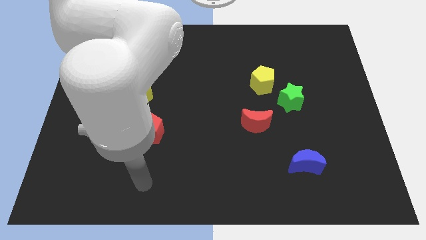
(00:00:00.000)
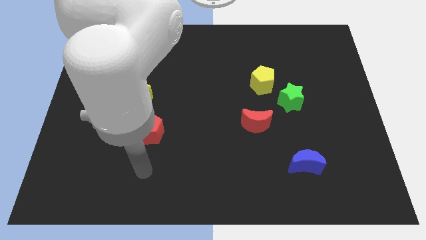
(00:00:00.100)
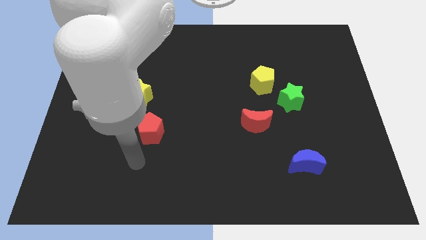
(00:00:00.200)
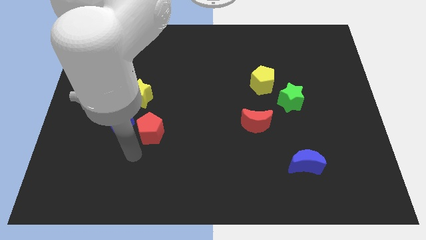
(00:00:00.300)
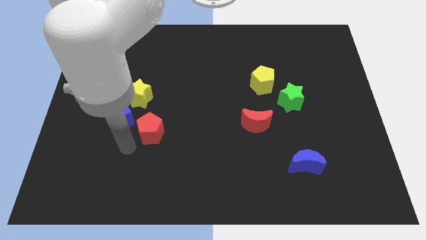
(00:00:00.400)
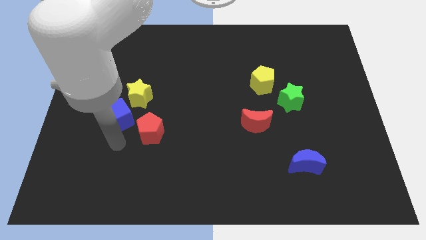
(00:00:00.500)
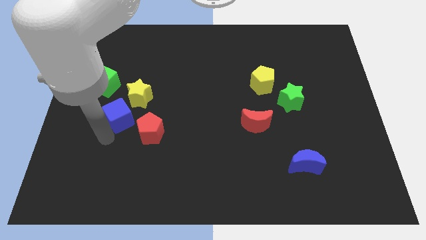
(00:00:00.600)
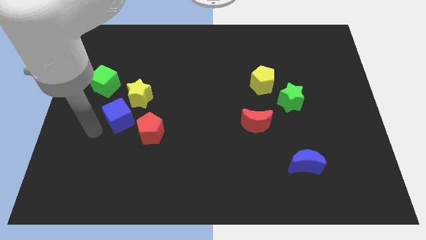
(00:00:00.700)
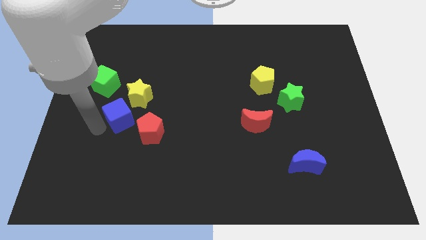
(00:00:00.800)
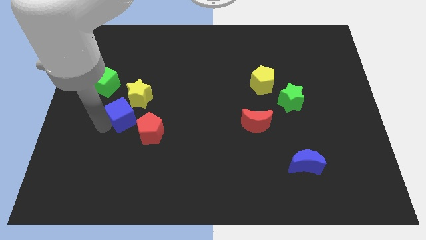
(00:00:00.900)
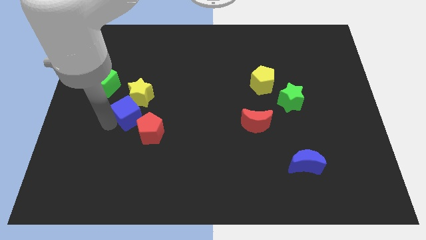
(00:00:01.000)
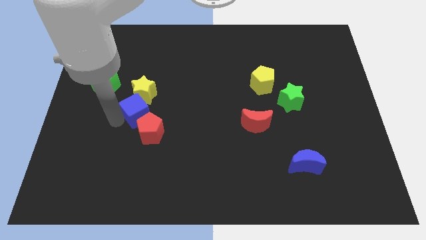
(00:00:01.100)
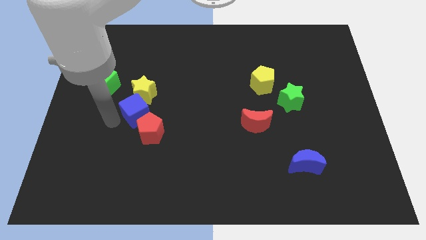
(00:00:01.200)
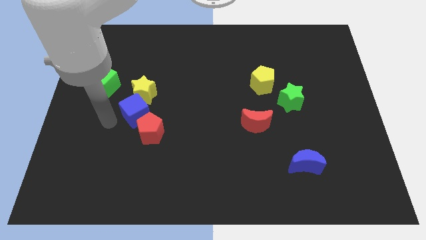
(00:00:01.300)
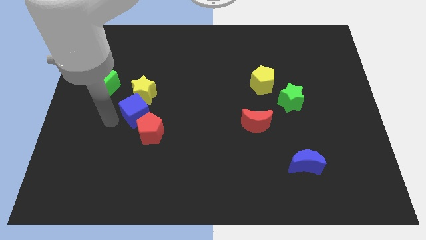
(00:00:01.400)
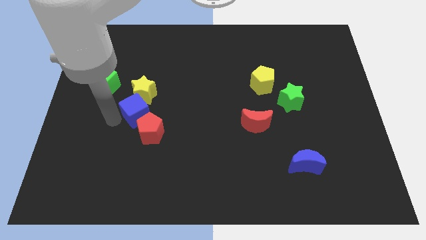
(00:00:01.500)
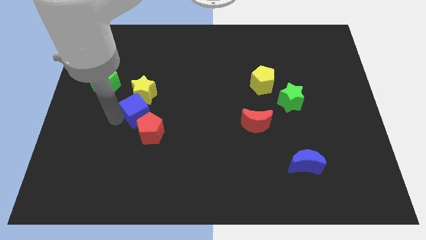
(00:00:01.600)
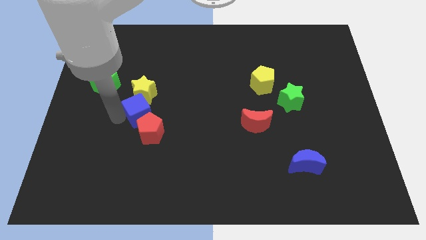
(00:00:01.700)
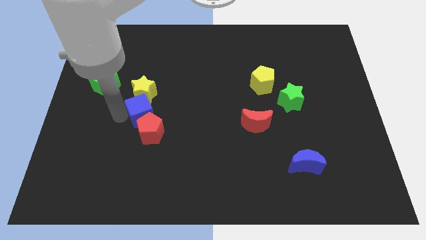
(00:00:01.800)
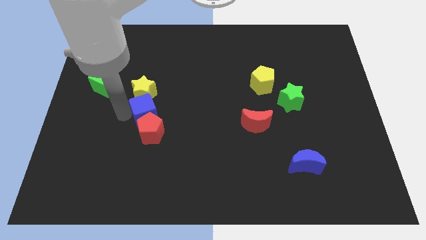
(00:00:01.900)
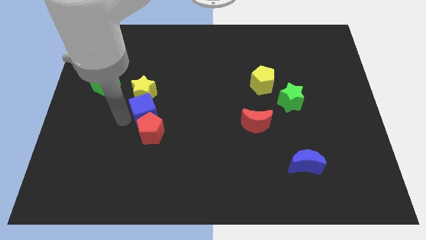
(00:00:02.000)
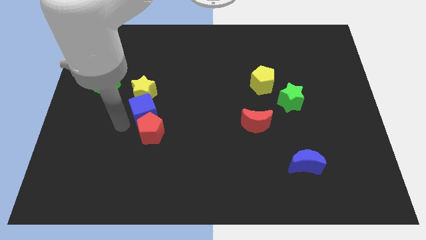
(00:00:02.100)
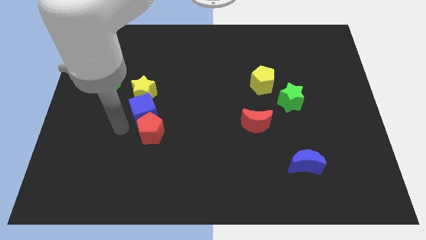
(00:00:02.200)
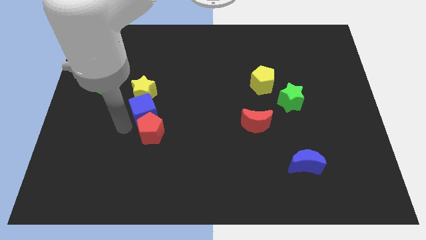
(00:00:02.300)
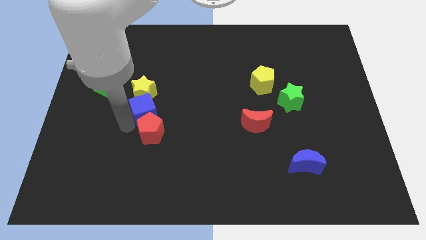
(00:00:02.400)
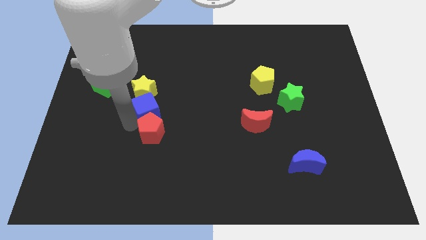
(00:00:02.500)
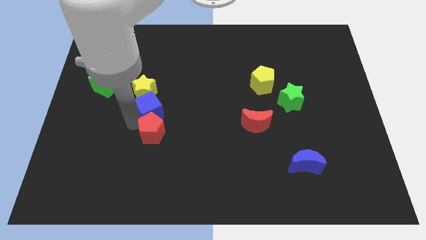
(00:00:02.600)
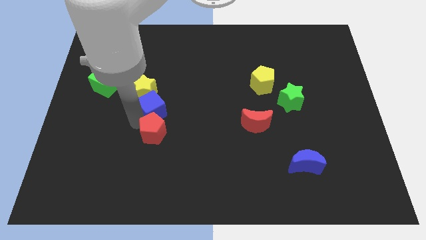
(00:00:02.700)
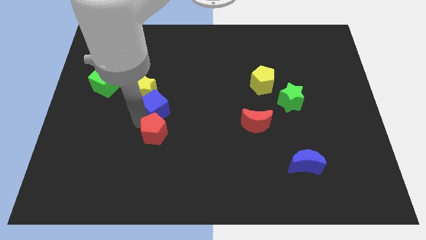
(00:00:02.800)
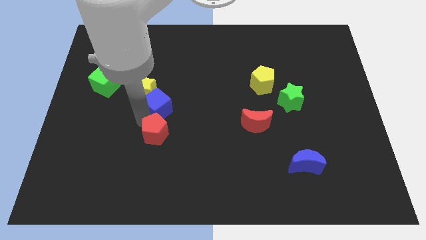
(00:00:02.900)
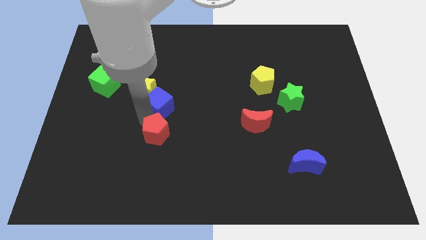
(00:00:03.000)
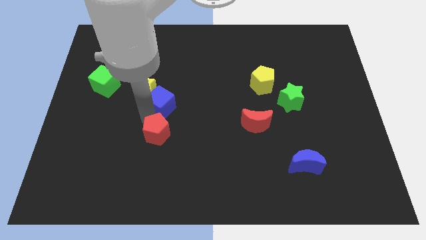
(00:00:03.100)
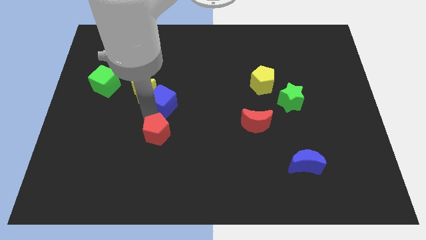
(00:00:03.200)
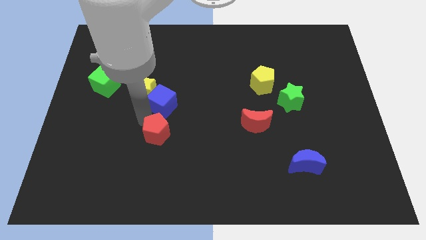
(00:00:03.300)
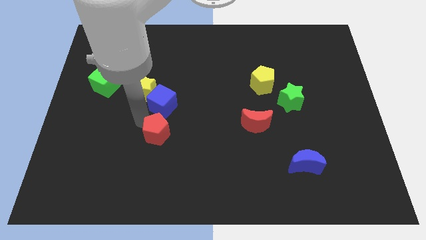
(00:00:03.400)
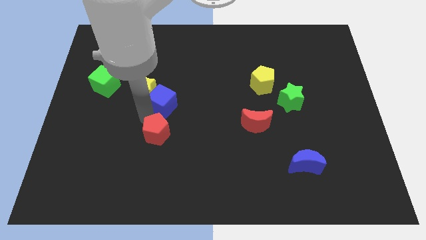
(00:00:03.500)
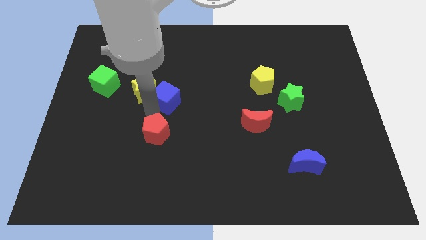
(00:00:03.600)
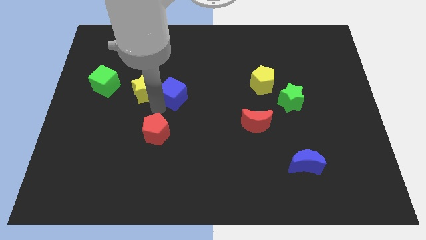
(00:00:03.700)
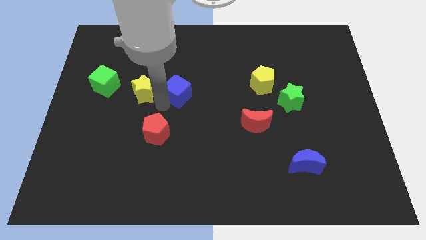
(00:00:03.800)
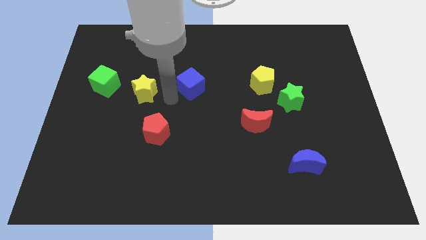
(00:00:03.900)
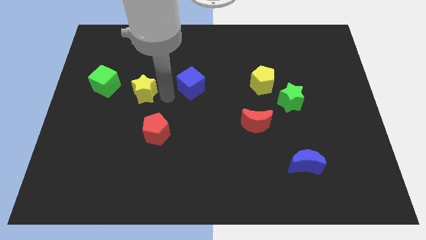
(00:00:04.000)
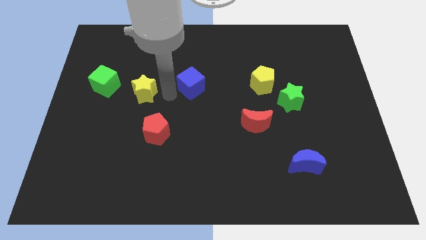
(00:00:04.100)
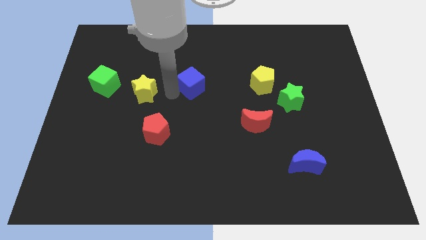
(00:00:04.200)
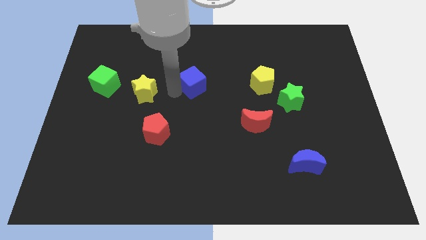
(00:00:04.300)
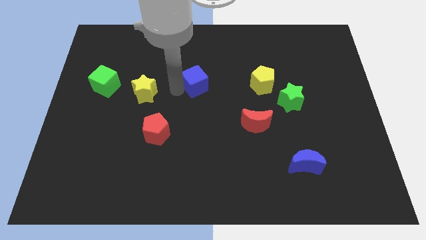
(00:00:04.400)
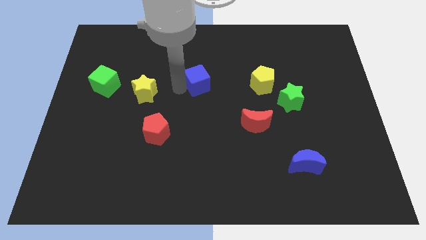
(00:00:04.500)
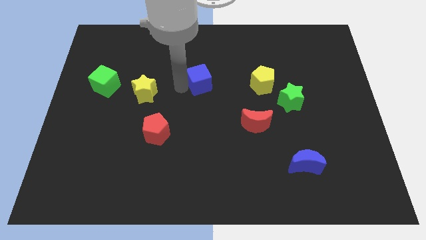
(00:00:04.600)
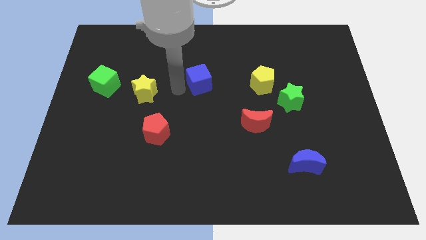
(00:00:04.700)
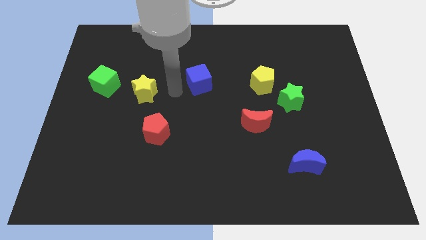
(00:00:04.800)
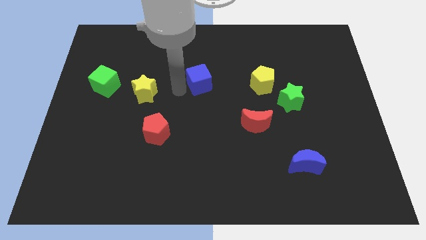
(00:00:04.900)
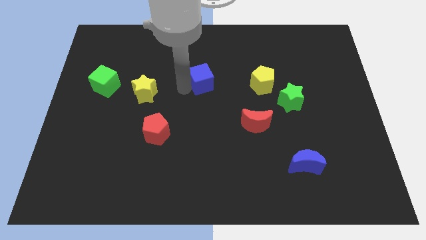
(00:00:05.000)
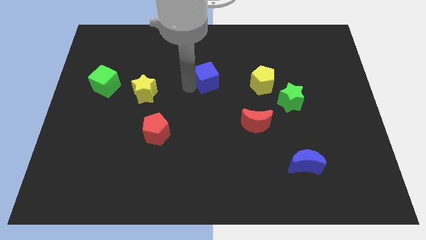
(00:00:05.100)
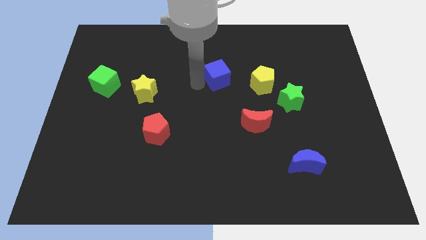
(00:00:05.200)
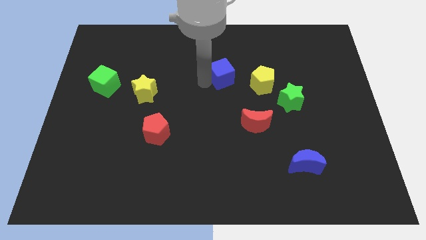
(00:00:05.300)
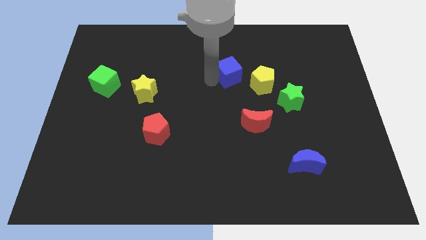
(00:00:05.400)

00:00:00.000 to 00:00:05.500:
move the blue cube diagonally up and to the left of the yellow pentagon
